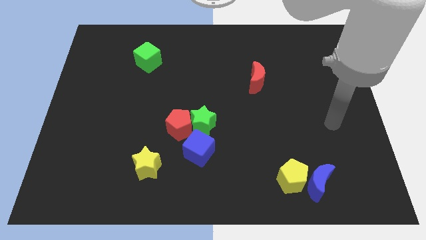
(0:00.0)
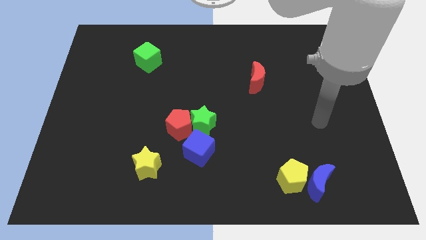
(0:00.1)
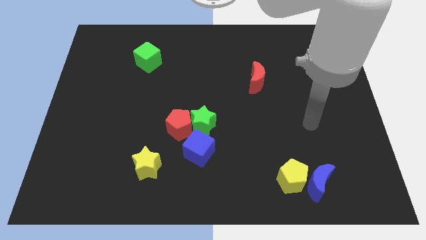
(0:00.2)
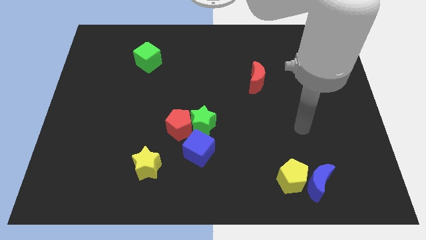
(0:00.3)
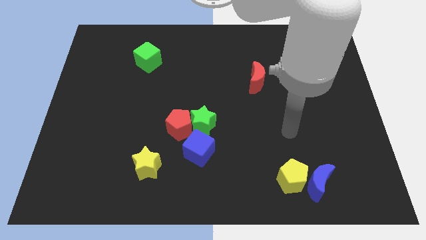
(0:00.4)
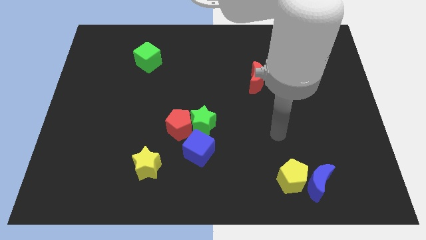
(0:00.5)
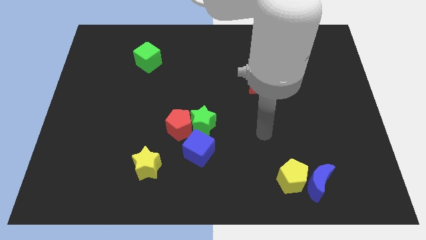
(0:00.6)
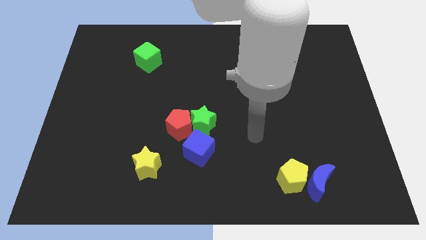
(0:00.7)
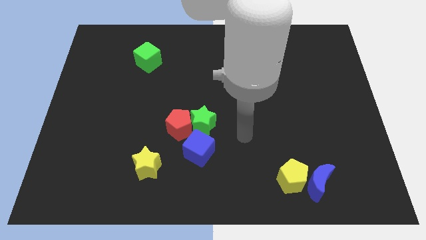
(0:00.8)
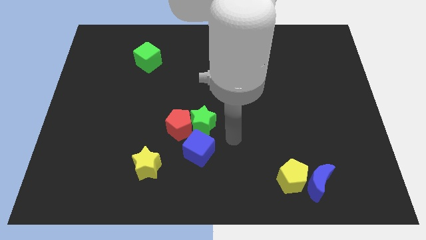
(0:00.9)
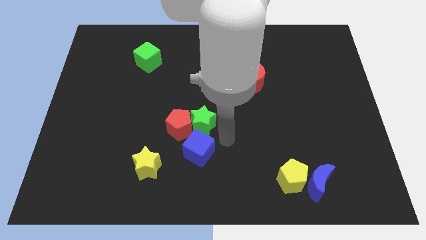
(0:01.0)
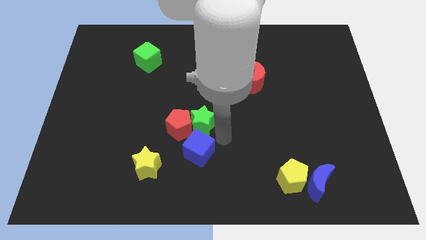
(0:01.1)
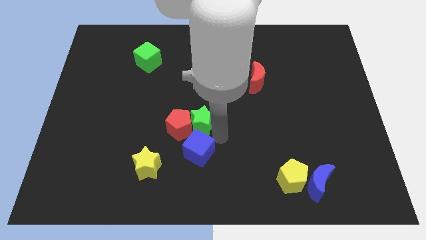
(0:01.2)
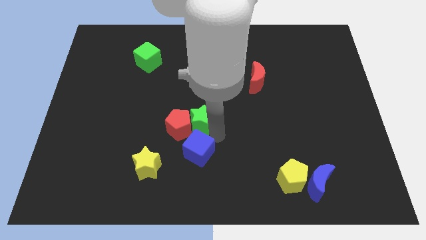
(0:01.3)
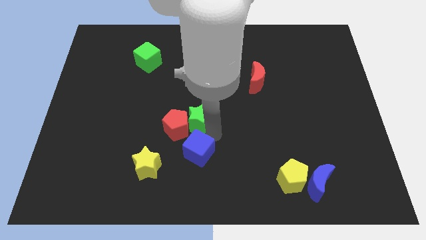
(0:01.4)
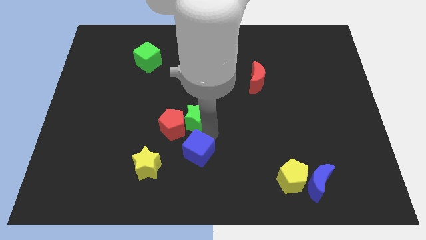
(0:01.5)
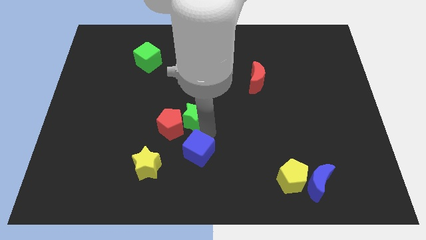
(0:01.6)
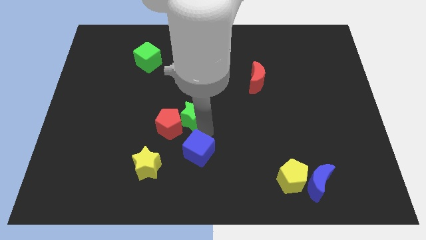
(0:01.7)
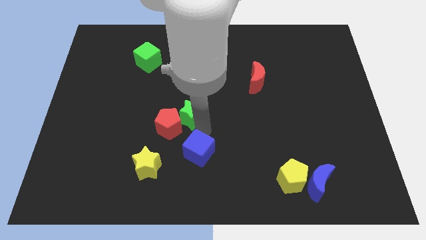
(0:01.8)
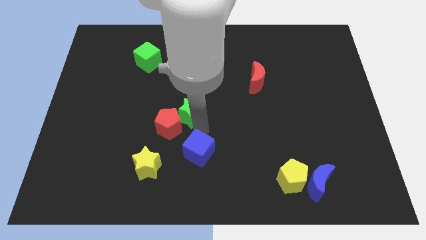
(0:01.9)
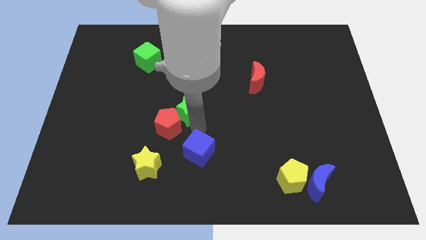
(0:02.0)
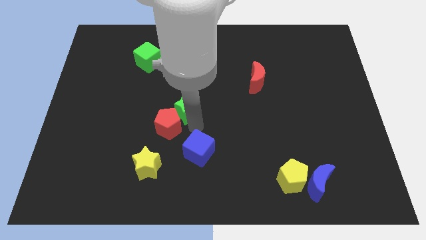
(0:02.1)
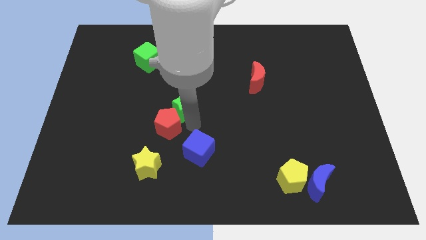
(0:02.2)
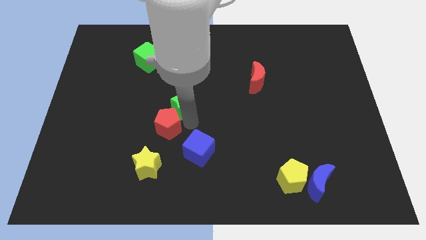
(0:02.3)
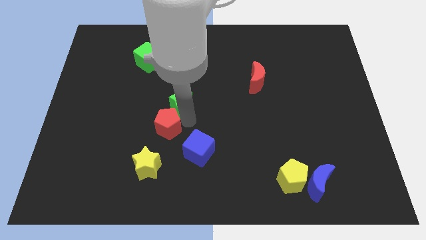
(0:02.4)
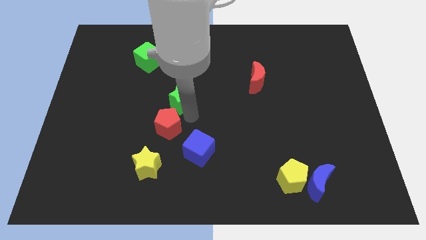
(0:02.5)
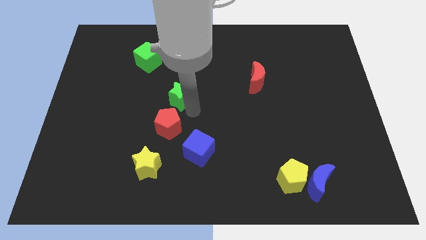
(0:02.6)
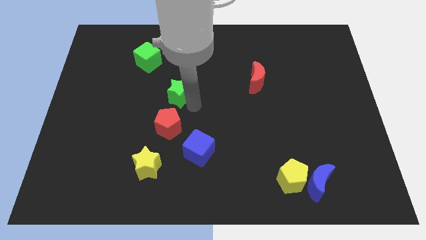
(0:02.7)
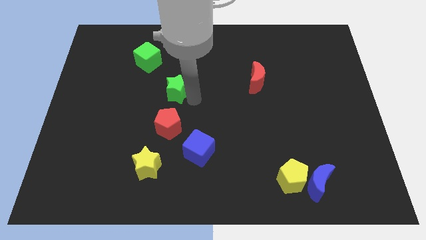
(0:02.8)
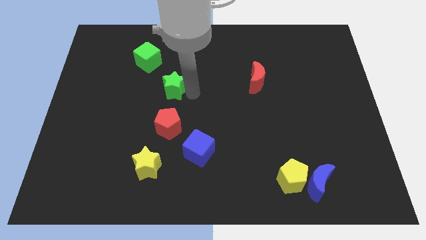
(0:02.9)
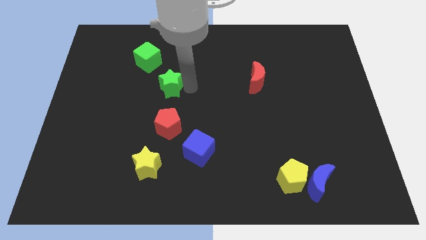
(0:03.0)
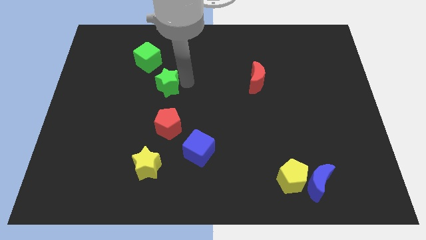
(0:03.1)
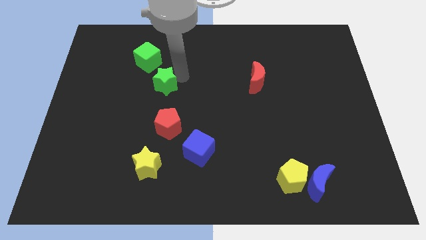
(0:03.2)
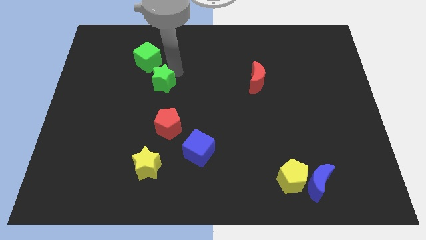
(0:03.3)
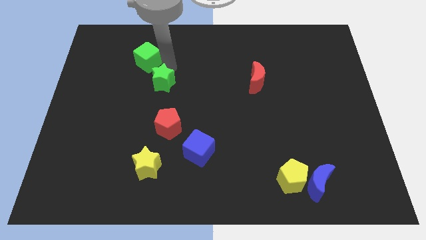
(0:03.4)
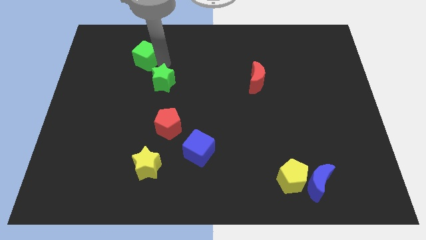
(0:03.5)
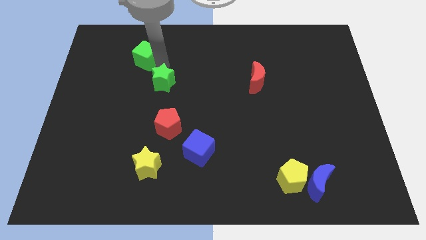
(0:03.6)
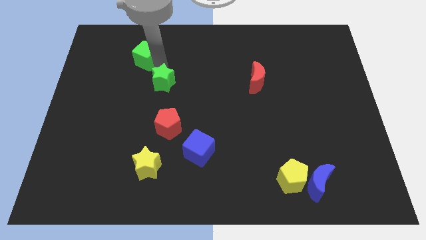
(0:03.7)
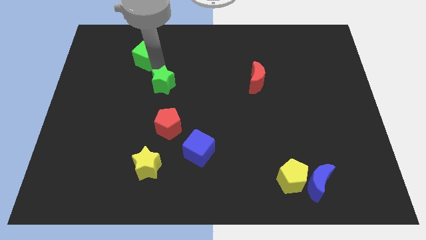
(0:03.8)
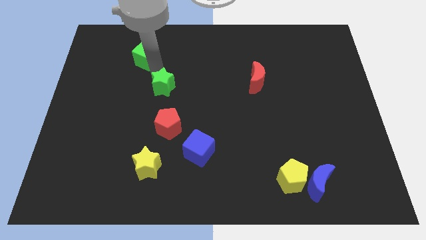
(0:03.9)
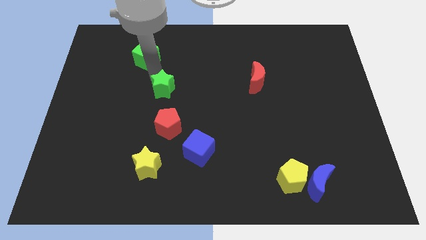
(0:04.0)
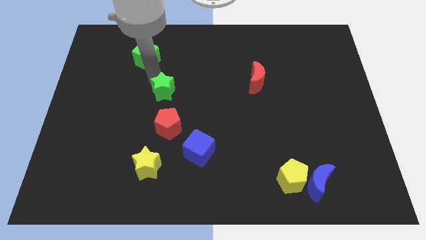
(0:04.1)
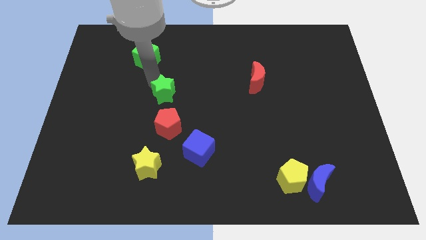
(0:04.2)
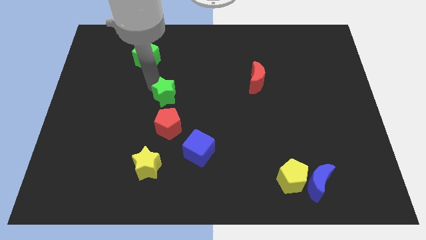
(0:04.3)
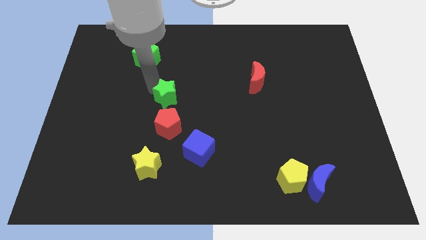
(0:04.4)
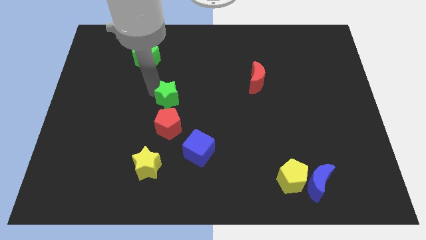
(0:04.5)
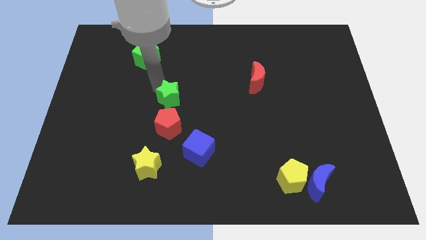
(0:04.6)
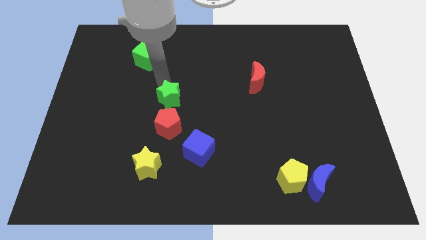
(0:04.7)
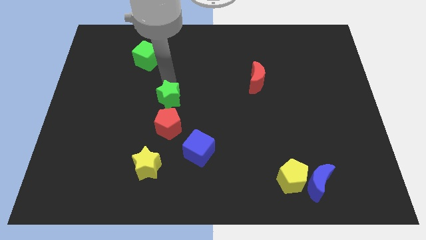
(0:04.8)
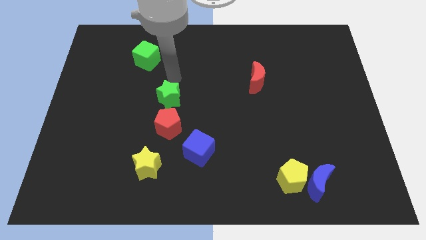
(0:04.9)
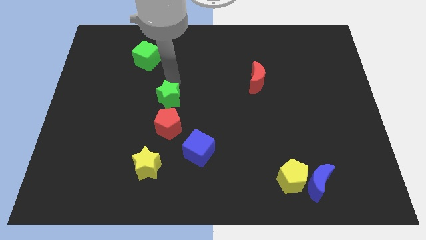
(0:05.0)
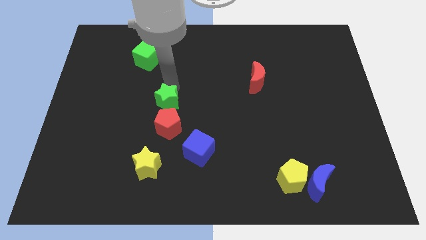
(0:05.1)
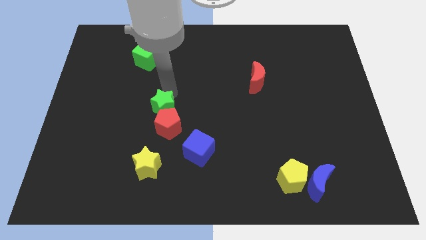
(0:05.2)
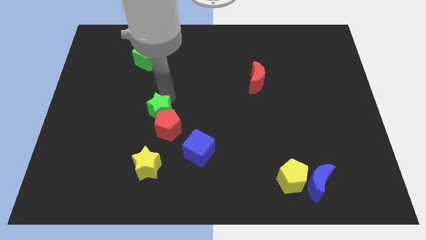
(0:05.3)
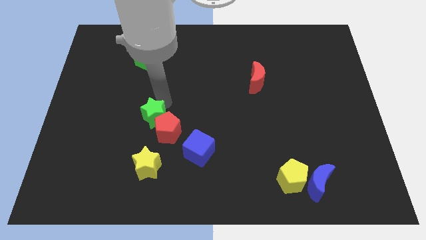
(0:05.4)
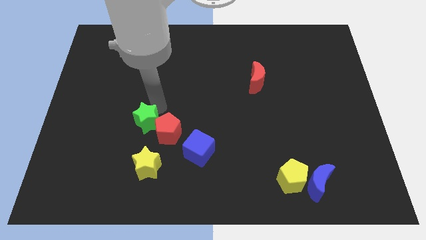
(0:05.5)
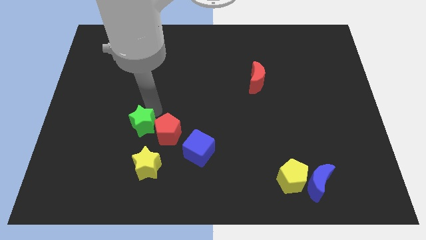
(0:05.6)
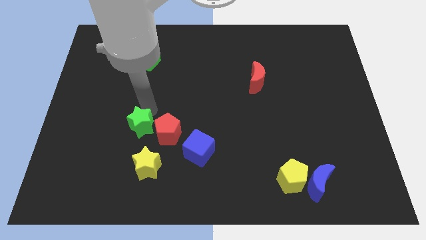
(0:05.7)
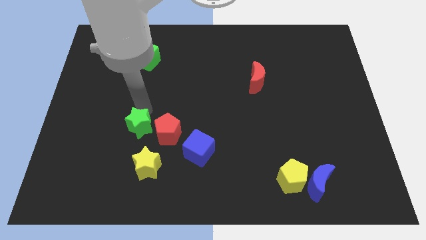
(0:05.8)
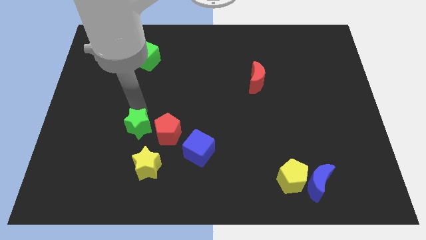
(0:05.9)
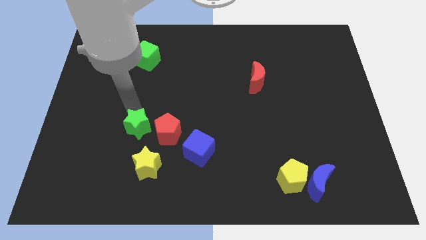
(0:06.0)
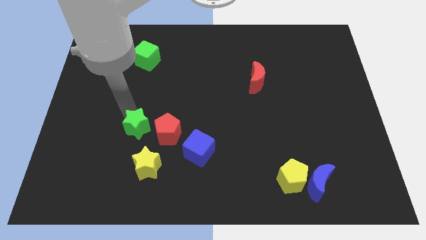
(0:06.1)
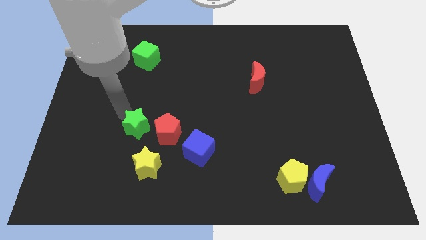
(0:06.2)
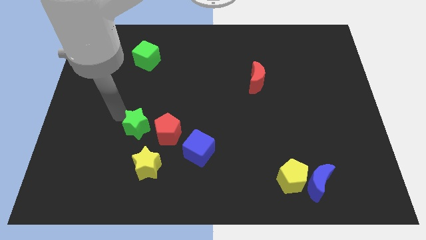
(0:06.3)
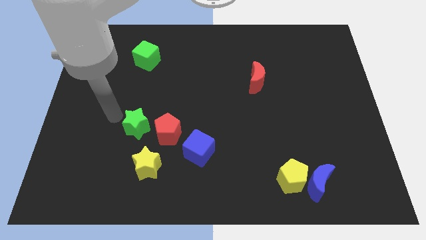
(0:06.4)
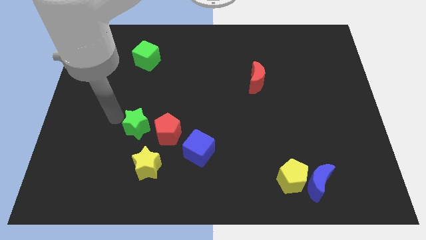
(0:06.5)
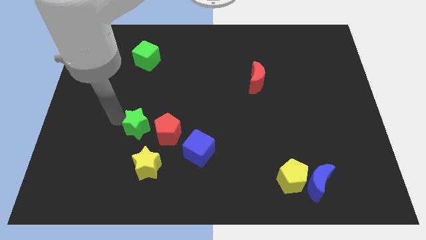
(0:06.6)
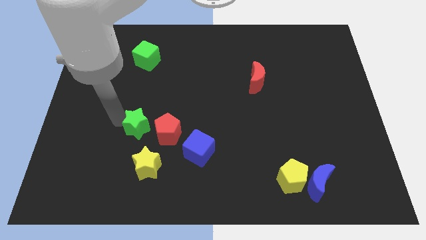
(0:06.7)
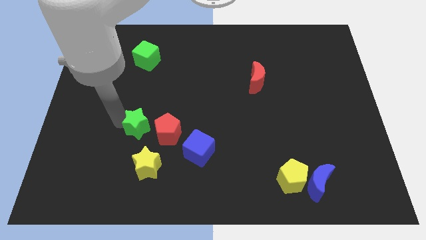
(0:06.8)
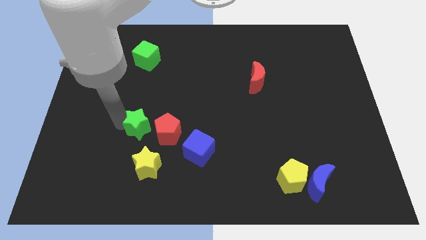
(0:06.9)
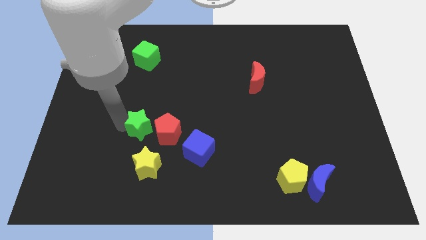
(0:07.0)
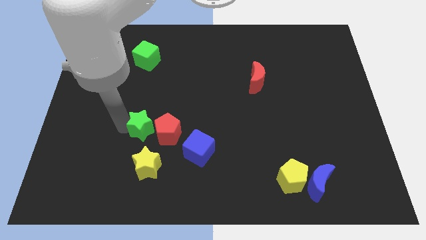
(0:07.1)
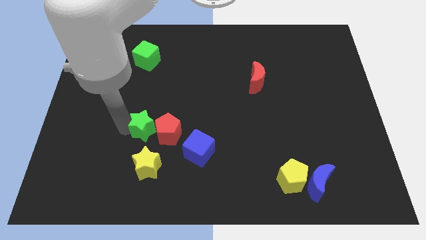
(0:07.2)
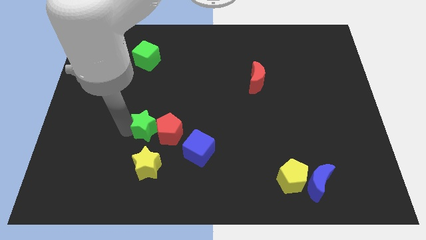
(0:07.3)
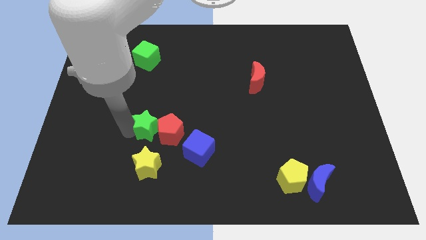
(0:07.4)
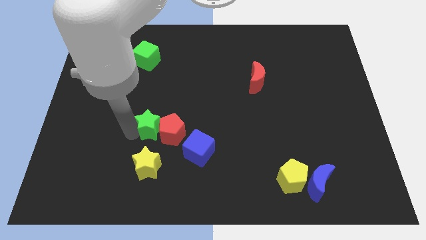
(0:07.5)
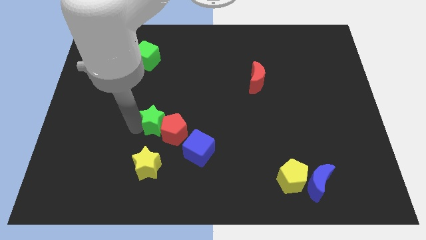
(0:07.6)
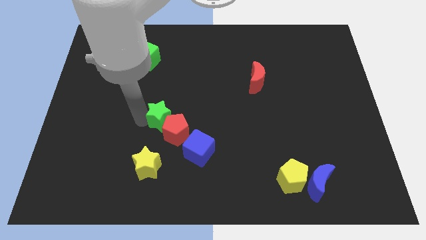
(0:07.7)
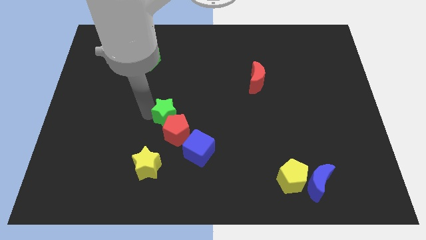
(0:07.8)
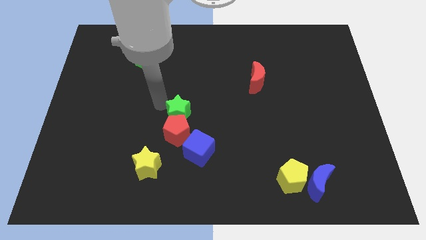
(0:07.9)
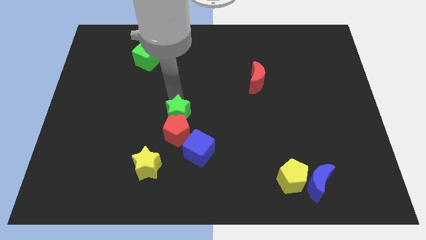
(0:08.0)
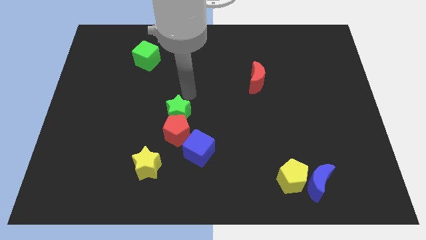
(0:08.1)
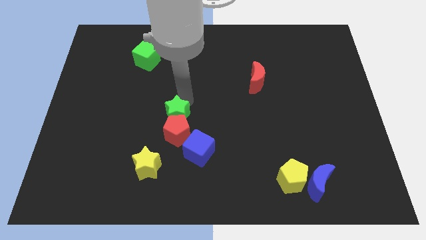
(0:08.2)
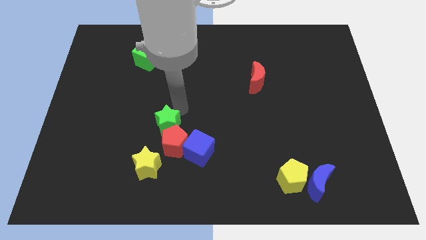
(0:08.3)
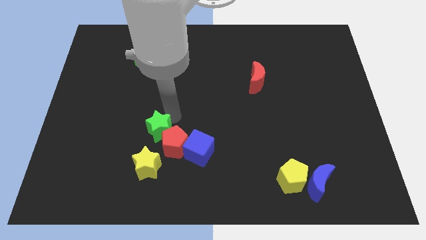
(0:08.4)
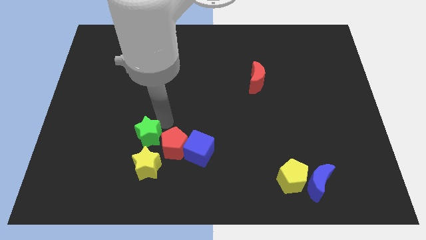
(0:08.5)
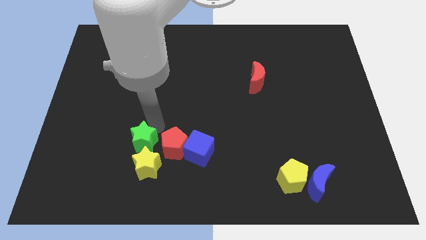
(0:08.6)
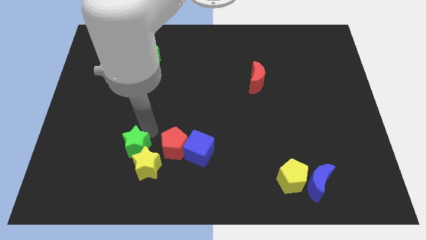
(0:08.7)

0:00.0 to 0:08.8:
put the green star towards the yellow star
